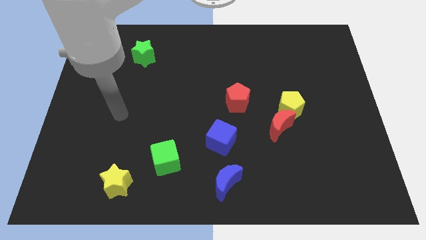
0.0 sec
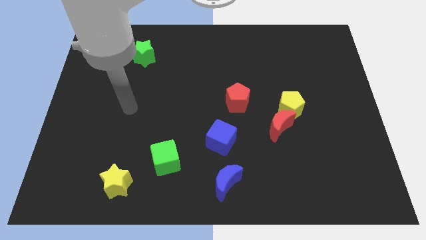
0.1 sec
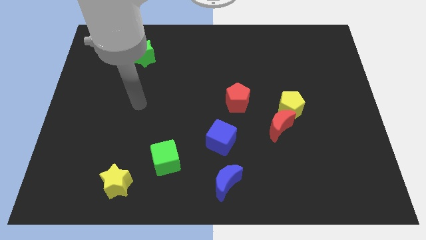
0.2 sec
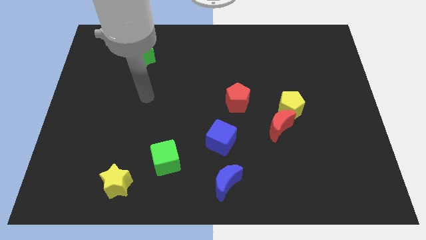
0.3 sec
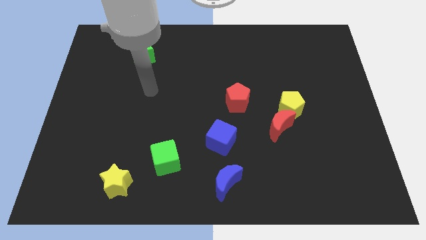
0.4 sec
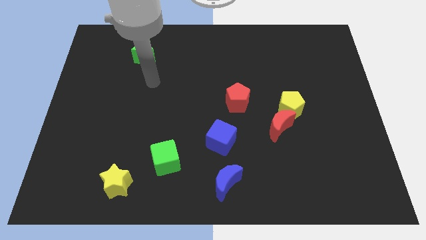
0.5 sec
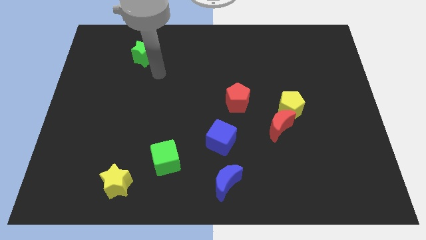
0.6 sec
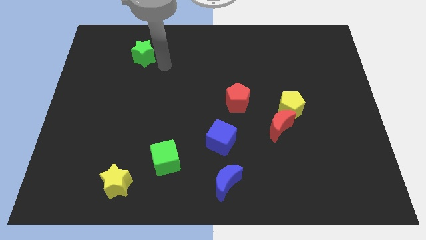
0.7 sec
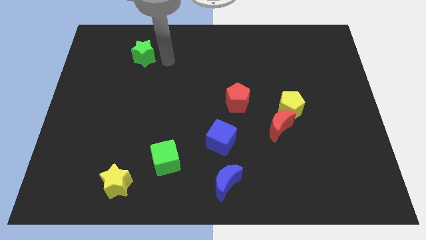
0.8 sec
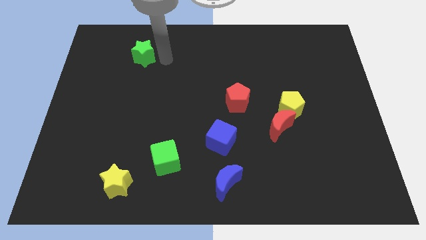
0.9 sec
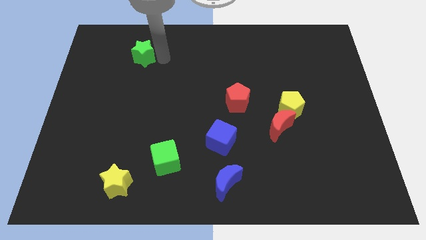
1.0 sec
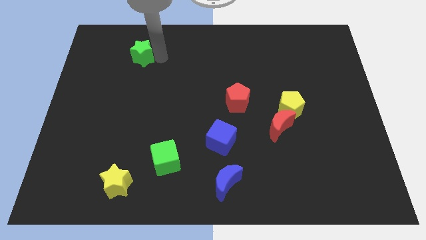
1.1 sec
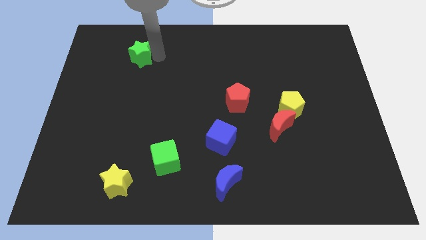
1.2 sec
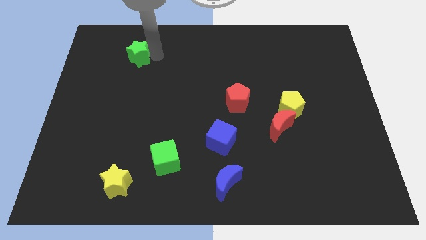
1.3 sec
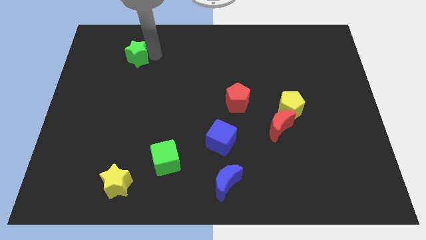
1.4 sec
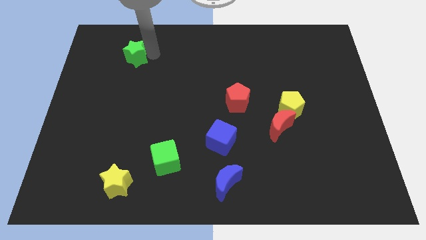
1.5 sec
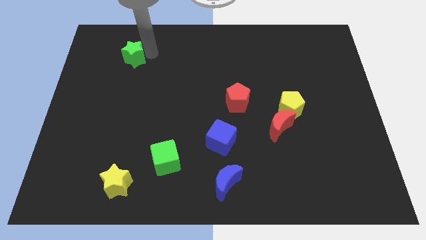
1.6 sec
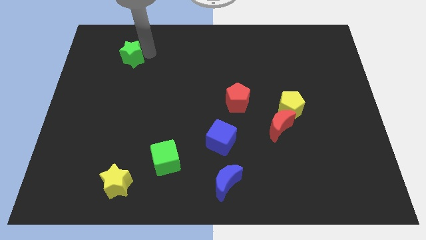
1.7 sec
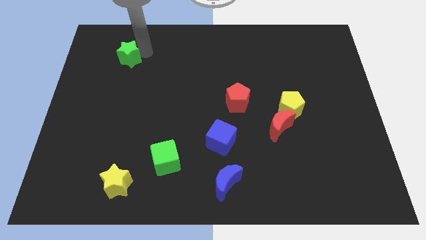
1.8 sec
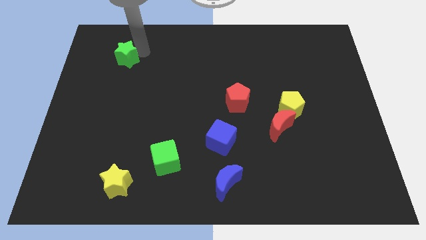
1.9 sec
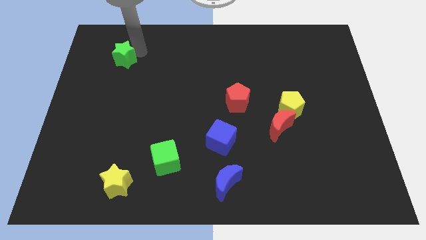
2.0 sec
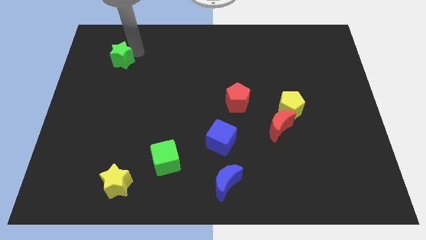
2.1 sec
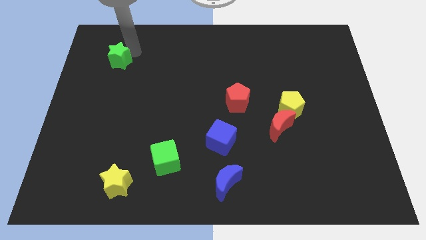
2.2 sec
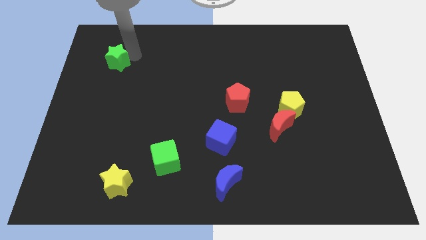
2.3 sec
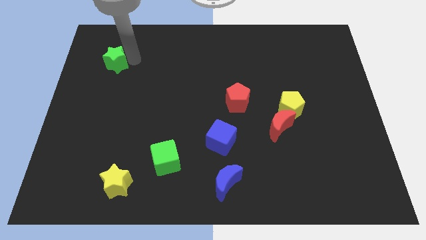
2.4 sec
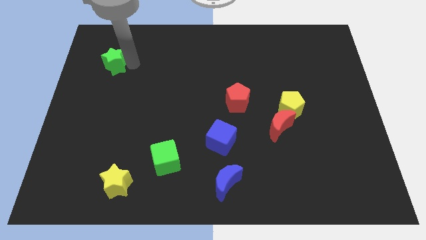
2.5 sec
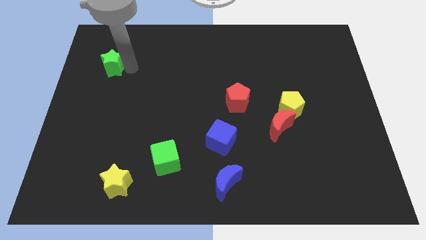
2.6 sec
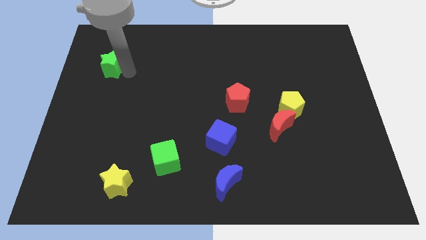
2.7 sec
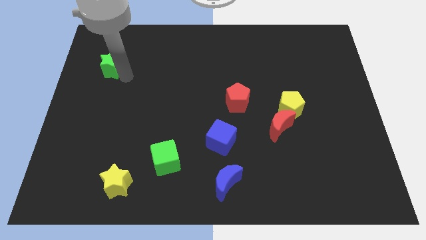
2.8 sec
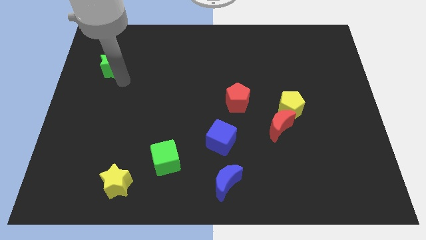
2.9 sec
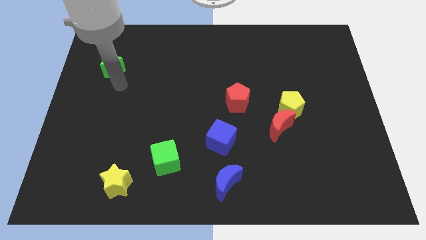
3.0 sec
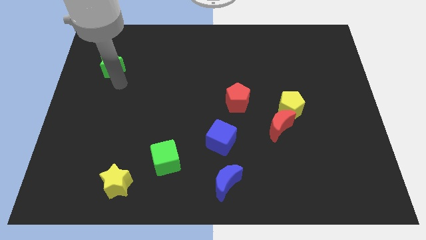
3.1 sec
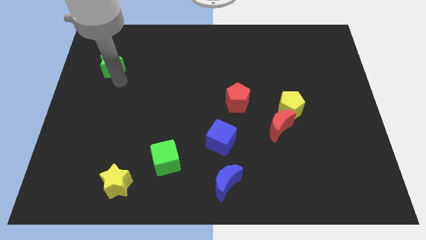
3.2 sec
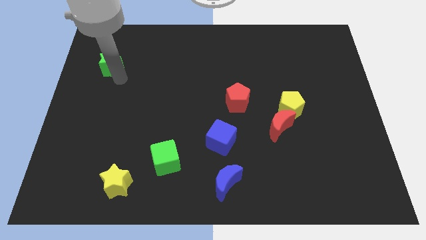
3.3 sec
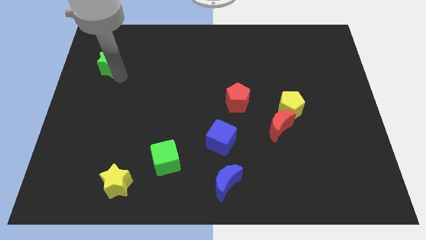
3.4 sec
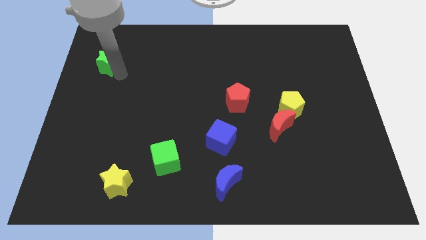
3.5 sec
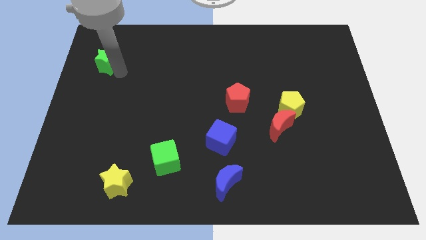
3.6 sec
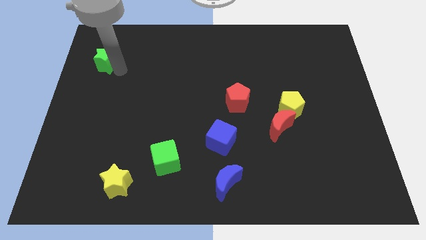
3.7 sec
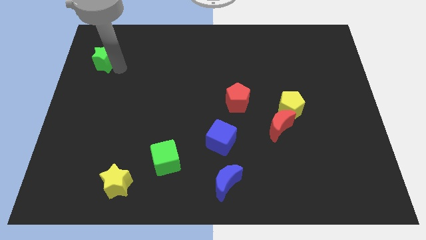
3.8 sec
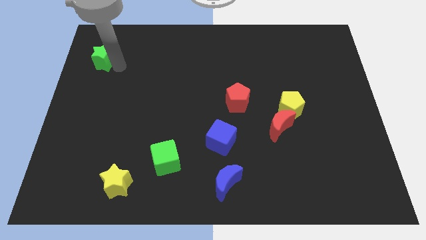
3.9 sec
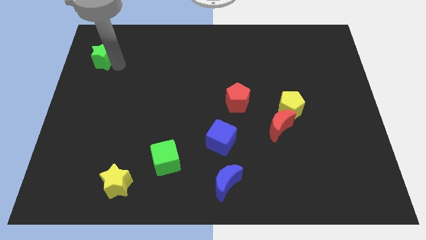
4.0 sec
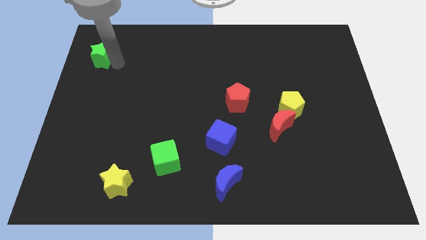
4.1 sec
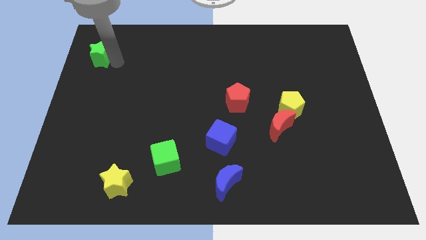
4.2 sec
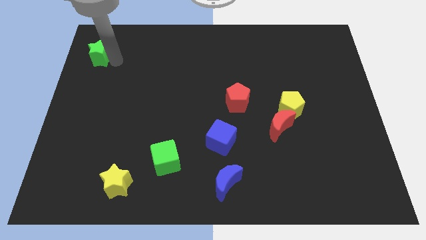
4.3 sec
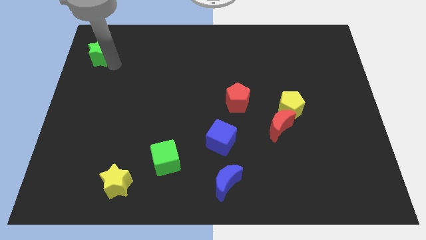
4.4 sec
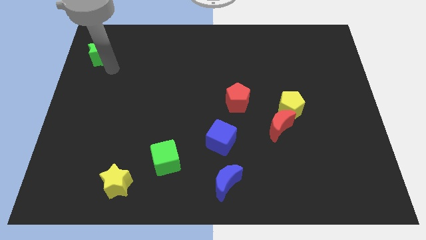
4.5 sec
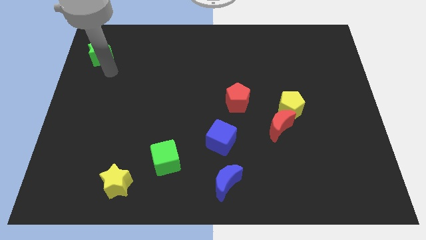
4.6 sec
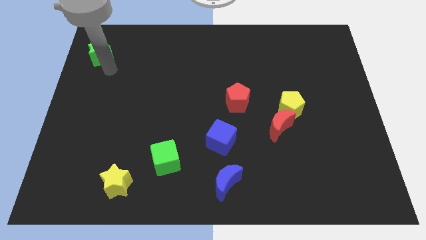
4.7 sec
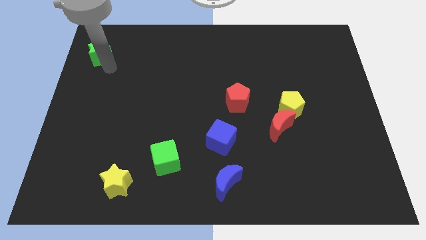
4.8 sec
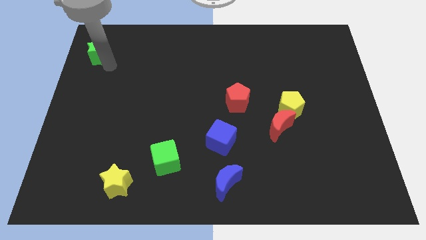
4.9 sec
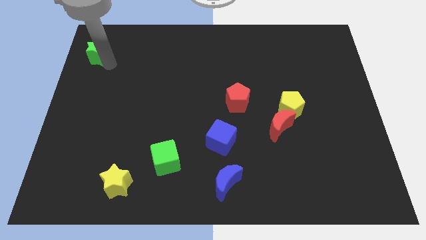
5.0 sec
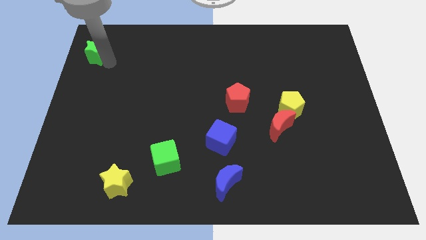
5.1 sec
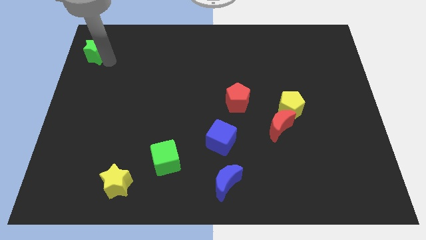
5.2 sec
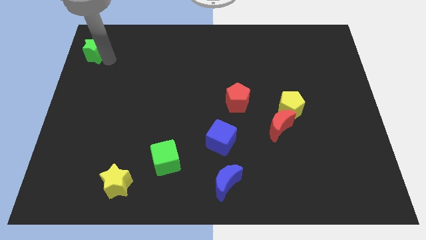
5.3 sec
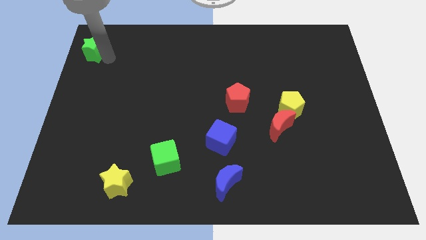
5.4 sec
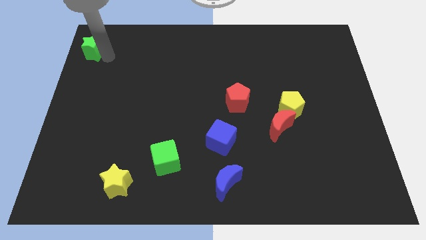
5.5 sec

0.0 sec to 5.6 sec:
put the green star to the top left

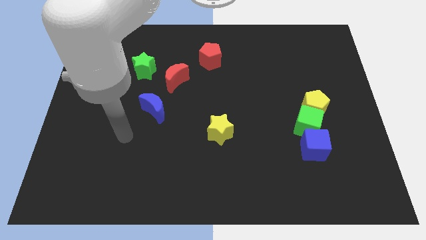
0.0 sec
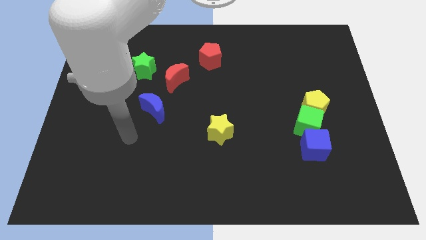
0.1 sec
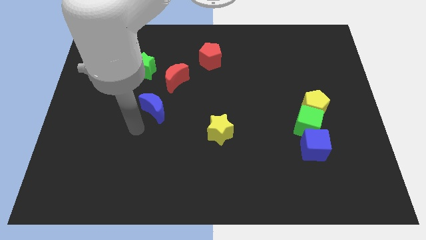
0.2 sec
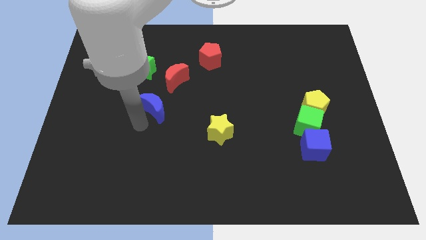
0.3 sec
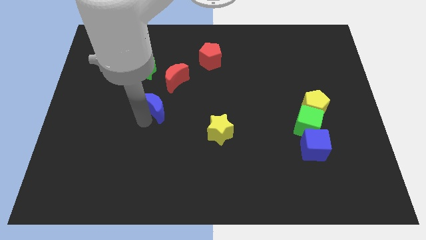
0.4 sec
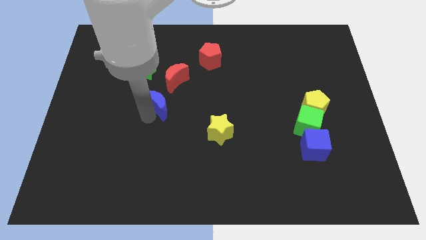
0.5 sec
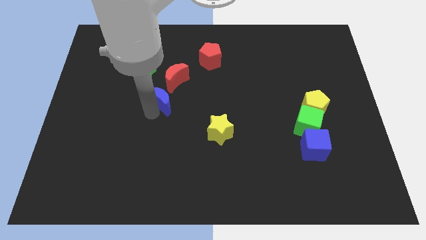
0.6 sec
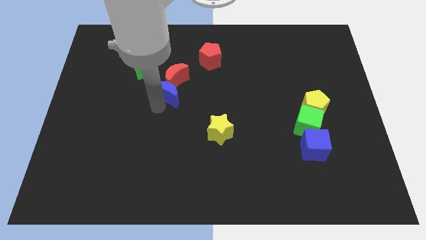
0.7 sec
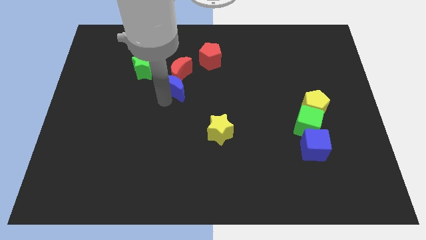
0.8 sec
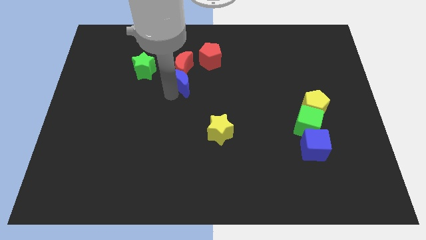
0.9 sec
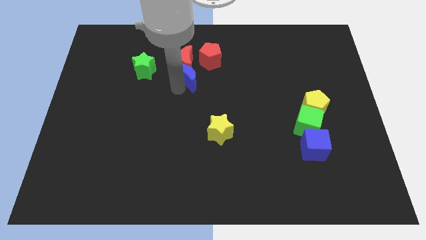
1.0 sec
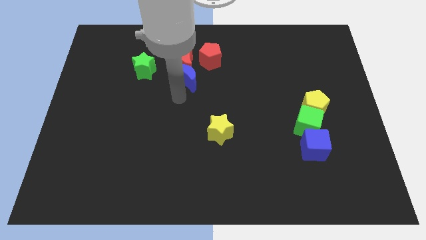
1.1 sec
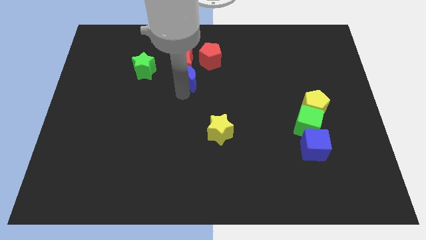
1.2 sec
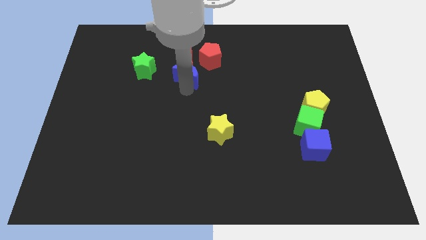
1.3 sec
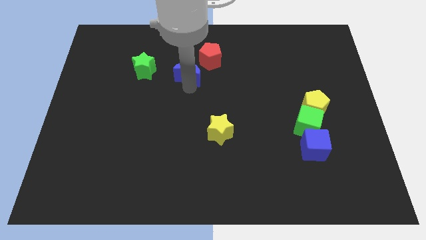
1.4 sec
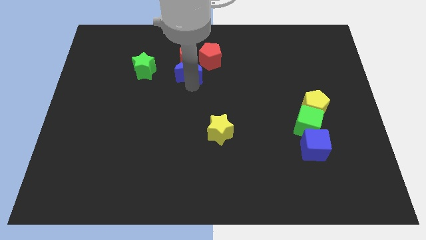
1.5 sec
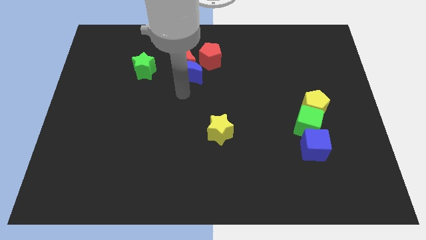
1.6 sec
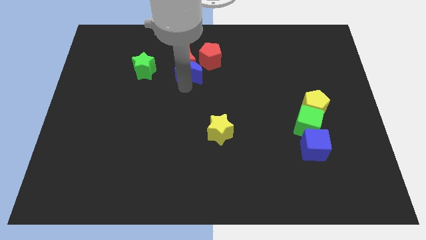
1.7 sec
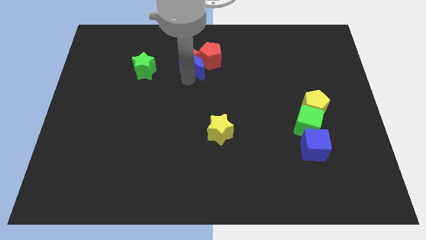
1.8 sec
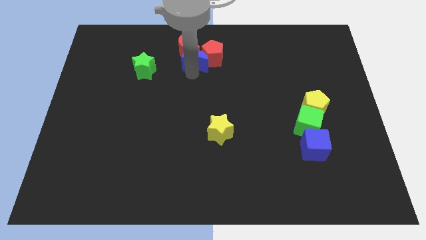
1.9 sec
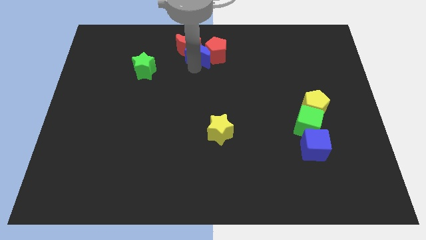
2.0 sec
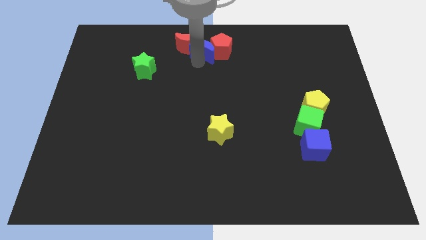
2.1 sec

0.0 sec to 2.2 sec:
move the blue moon to the top
